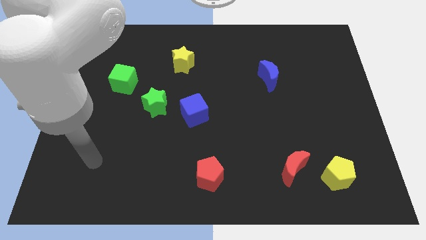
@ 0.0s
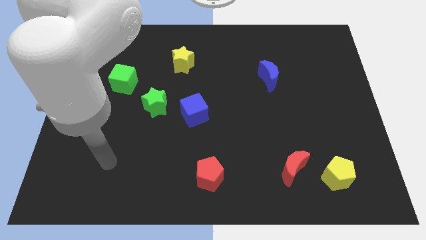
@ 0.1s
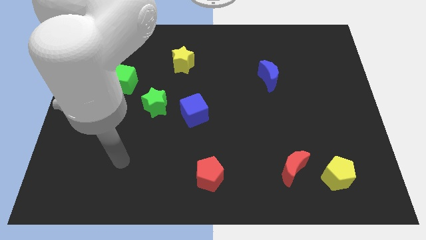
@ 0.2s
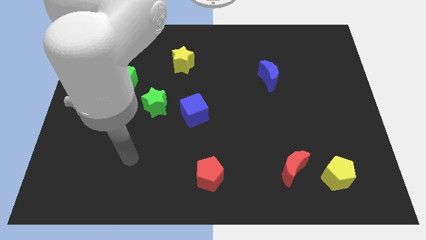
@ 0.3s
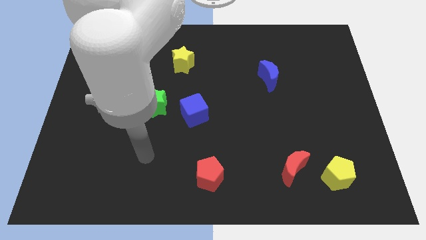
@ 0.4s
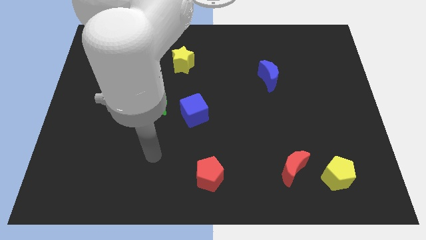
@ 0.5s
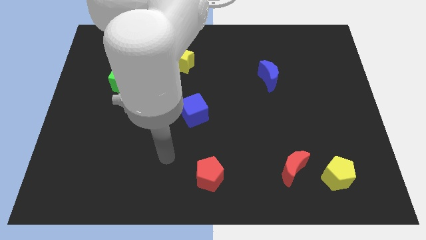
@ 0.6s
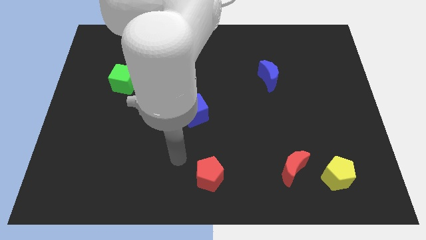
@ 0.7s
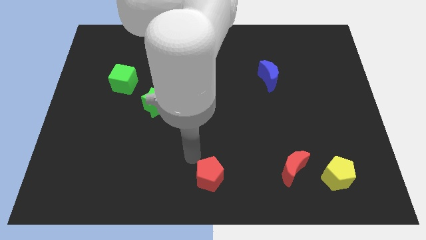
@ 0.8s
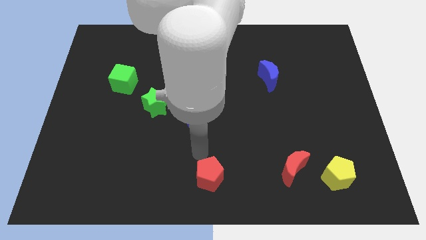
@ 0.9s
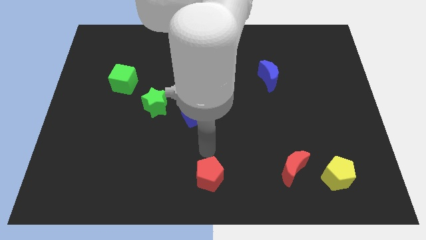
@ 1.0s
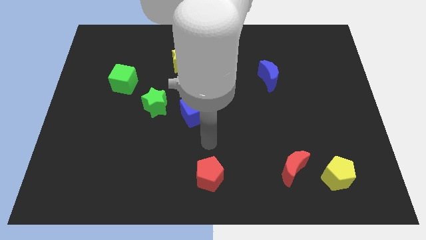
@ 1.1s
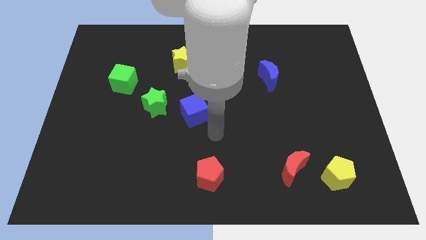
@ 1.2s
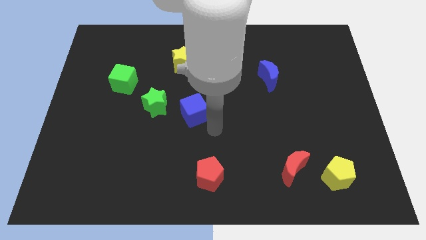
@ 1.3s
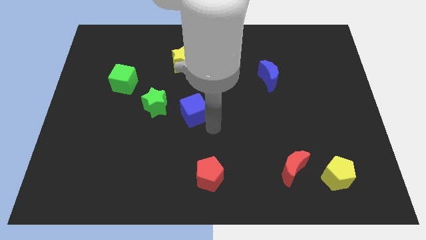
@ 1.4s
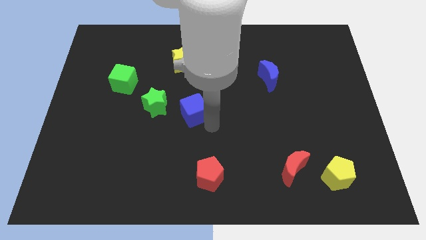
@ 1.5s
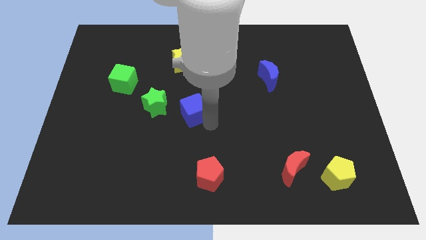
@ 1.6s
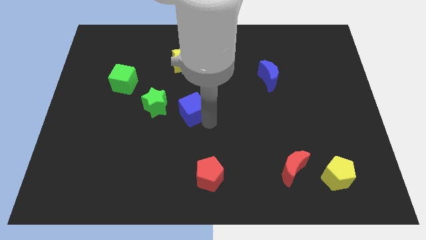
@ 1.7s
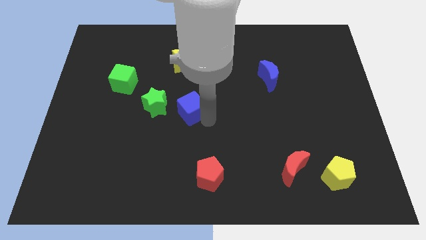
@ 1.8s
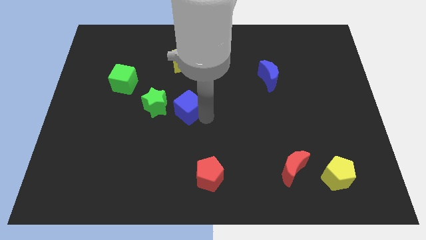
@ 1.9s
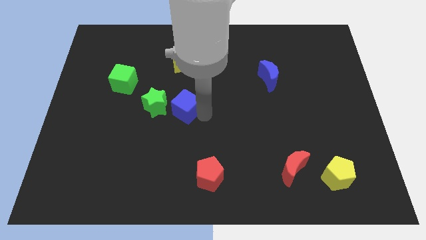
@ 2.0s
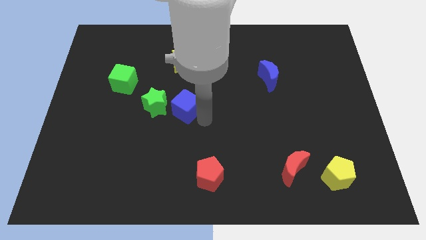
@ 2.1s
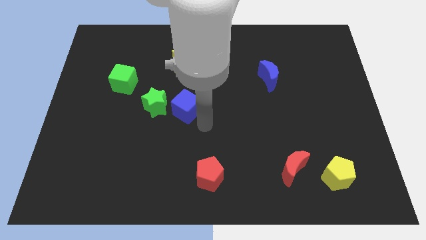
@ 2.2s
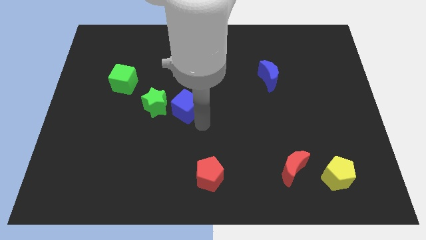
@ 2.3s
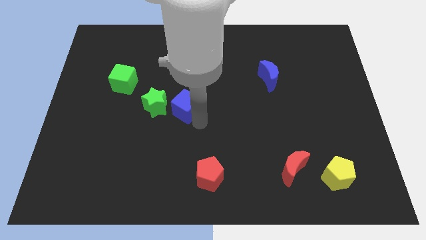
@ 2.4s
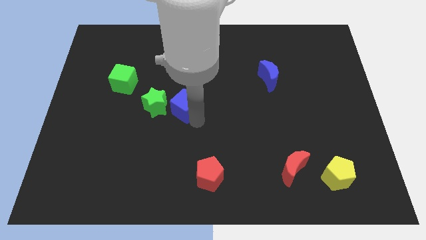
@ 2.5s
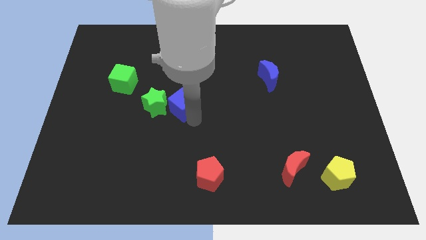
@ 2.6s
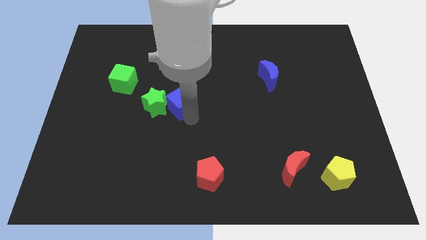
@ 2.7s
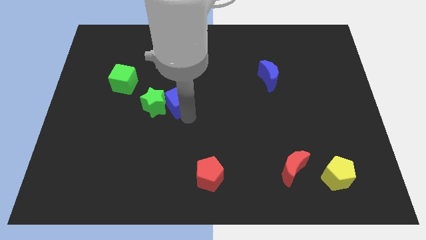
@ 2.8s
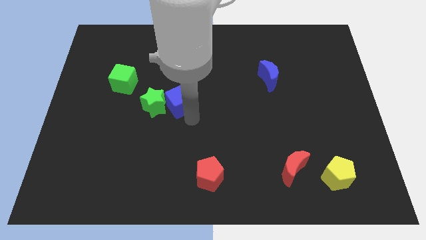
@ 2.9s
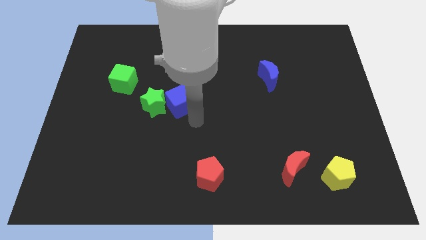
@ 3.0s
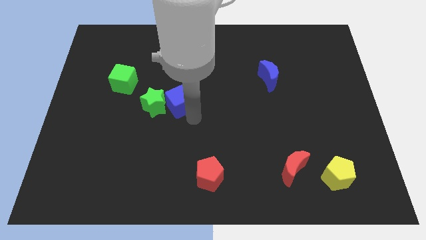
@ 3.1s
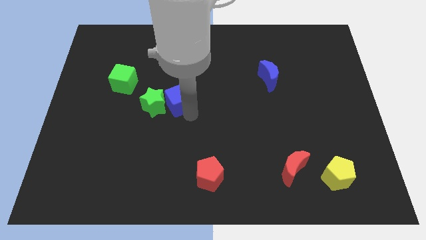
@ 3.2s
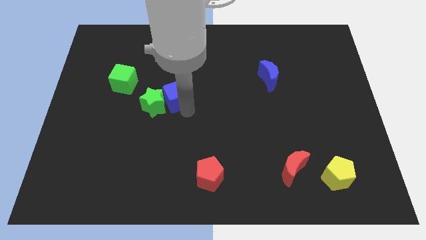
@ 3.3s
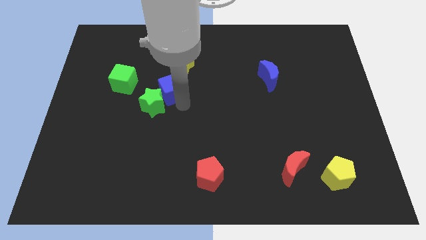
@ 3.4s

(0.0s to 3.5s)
push the blue cube slightly up and left

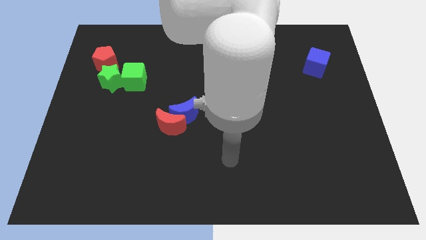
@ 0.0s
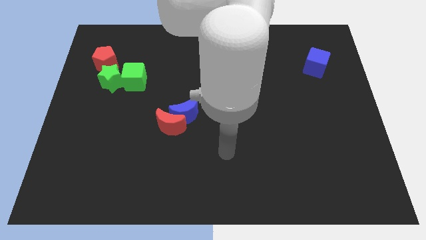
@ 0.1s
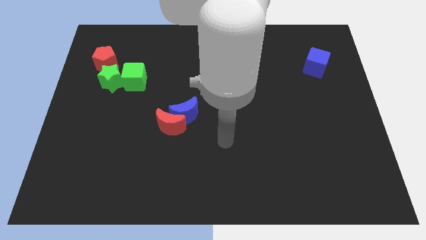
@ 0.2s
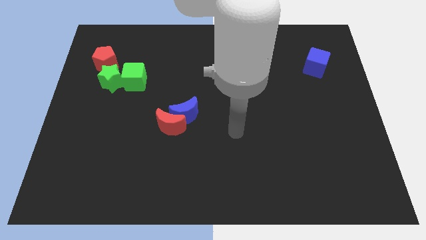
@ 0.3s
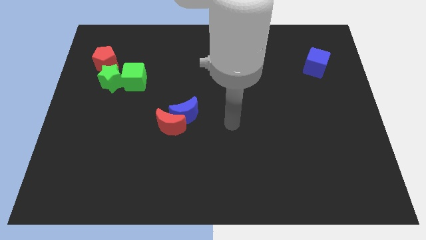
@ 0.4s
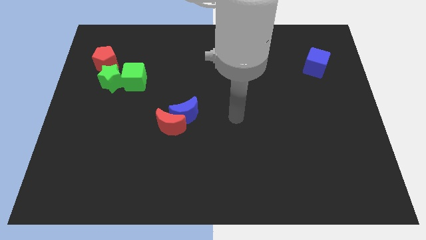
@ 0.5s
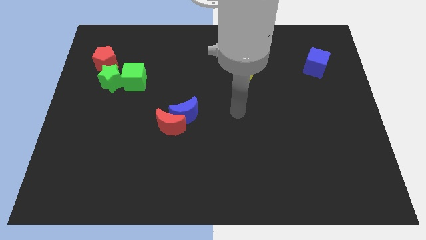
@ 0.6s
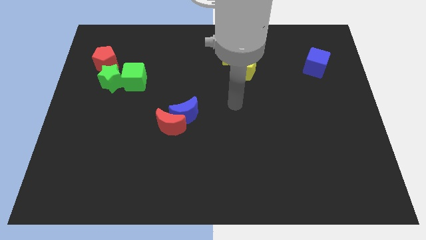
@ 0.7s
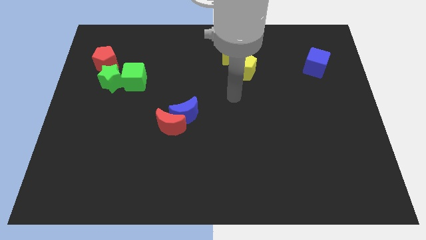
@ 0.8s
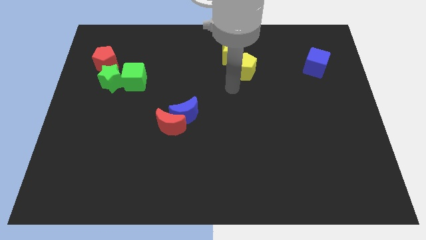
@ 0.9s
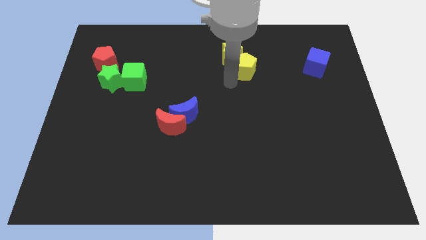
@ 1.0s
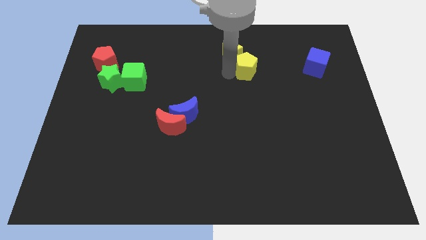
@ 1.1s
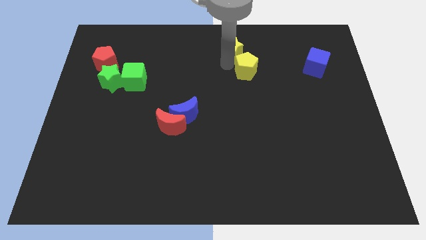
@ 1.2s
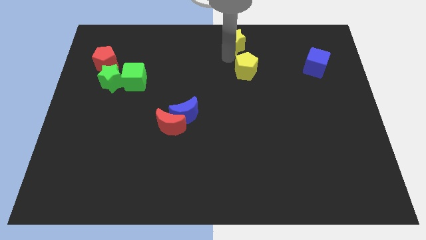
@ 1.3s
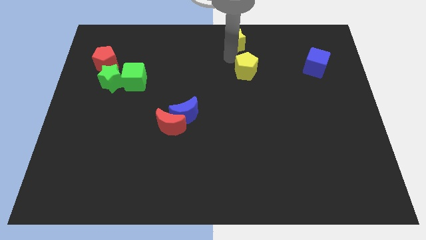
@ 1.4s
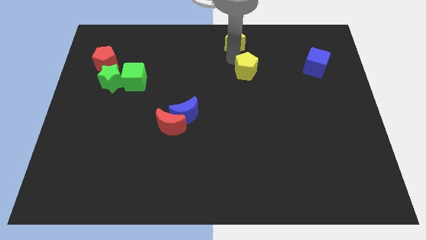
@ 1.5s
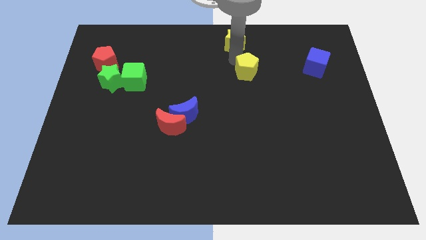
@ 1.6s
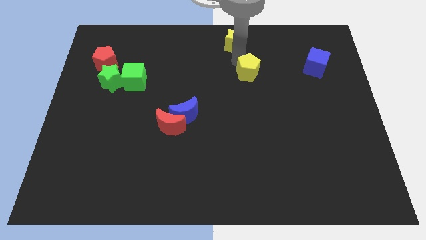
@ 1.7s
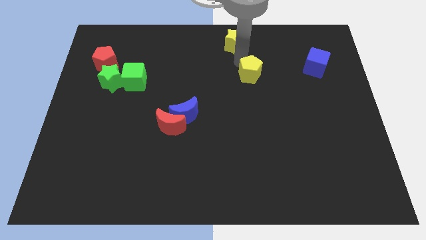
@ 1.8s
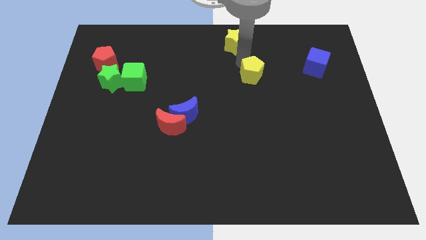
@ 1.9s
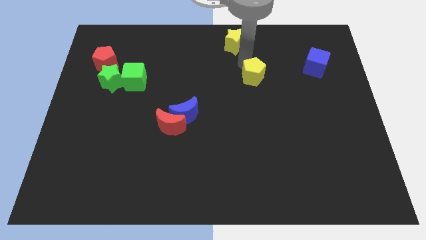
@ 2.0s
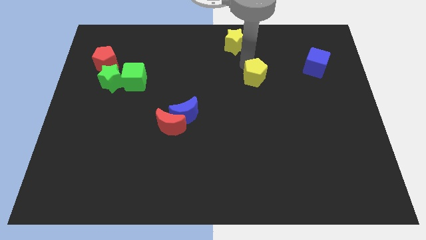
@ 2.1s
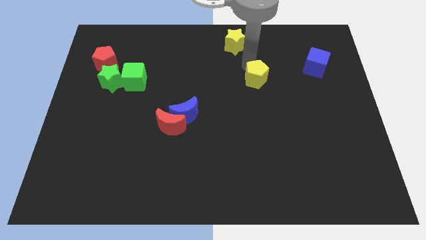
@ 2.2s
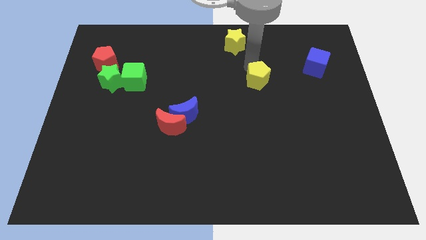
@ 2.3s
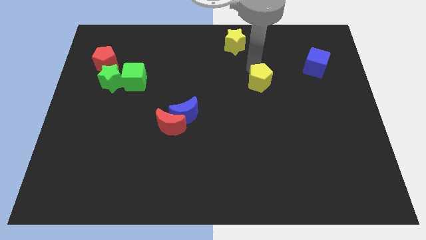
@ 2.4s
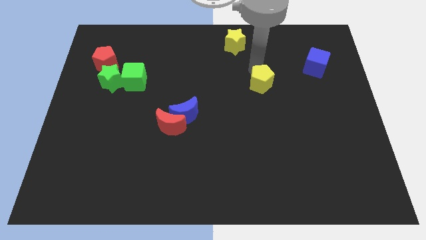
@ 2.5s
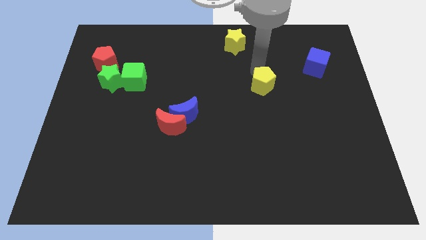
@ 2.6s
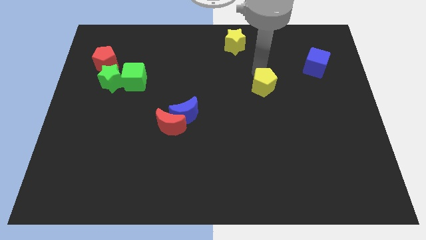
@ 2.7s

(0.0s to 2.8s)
move the yellow pentagon slightly down and to the right

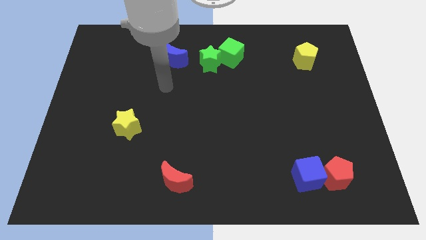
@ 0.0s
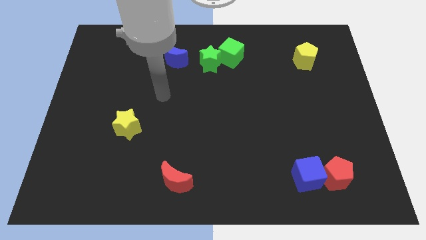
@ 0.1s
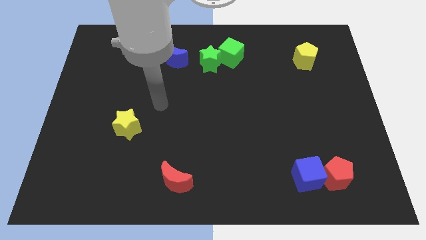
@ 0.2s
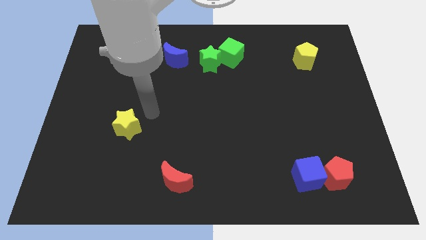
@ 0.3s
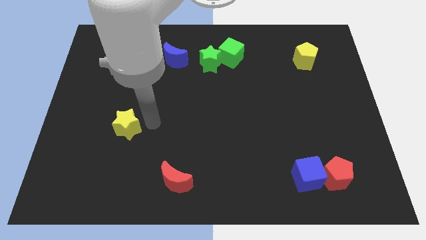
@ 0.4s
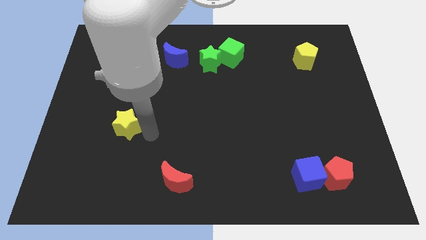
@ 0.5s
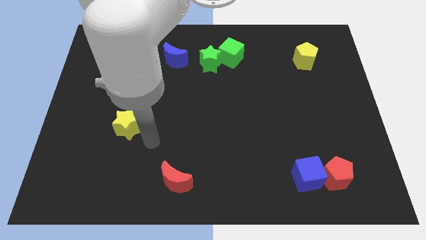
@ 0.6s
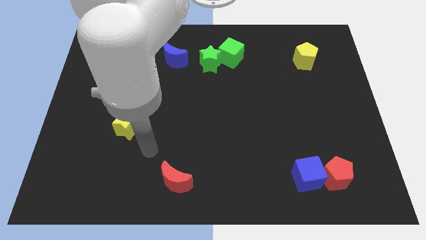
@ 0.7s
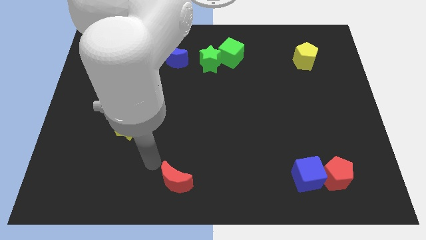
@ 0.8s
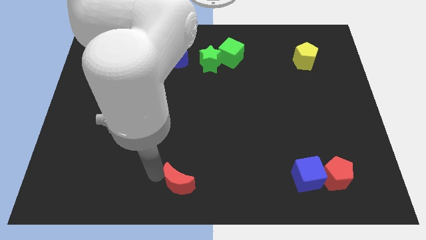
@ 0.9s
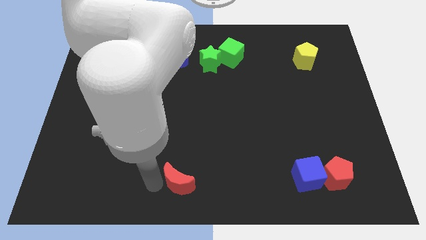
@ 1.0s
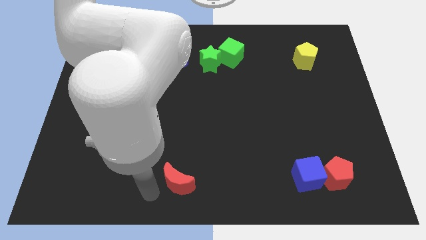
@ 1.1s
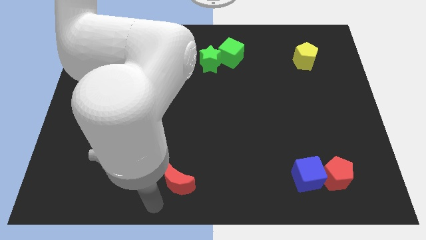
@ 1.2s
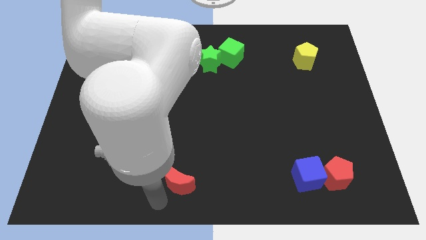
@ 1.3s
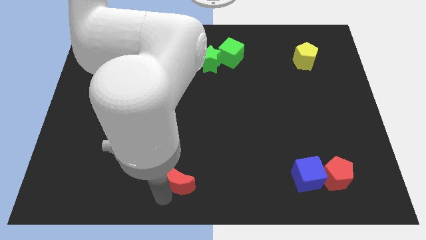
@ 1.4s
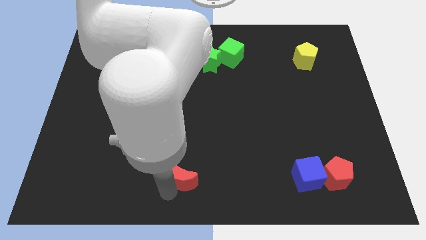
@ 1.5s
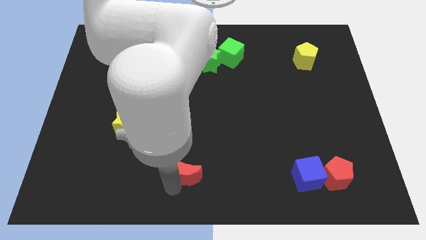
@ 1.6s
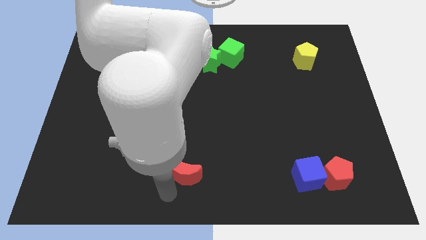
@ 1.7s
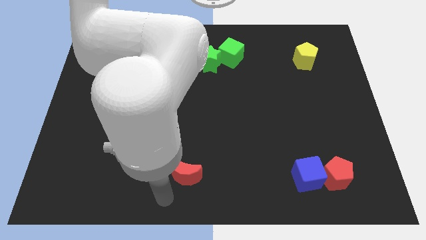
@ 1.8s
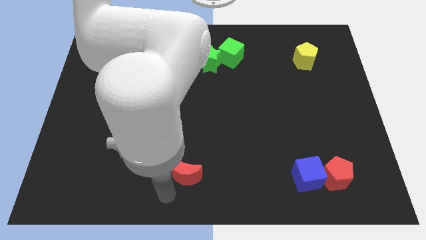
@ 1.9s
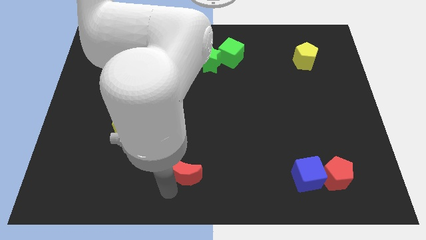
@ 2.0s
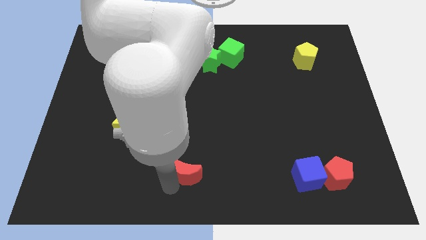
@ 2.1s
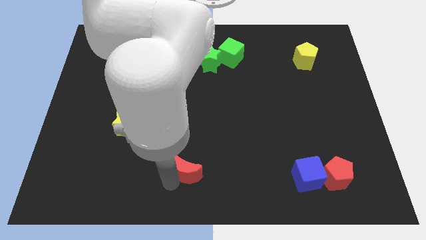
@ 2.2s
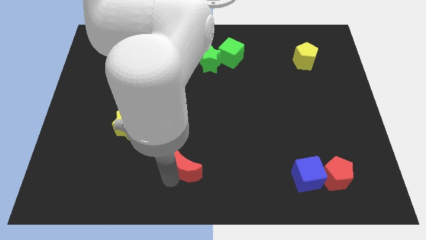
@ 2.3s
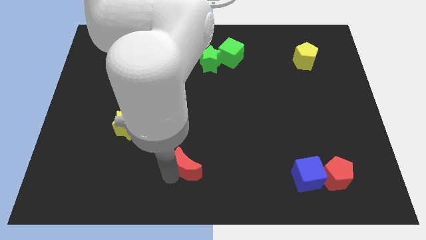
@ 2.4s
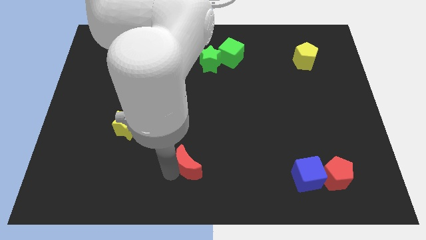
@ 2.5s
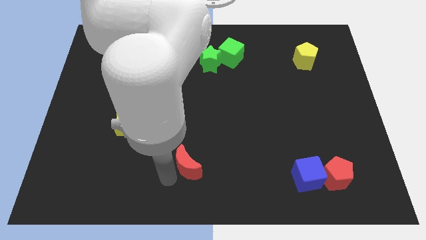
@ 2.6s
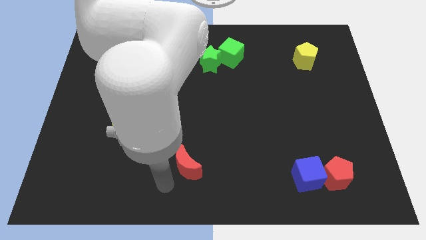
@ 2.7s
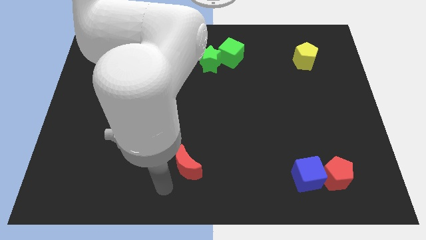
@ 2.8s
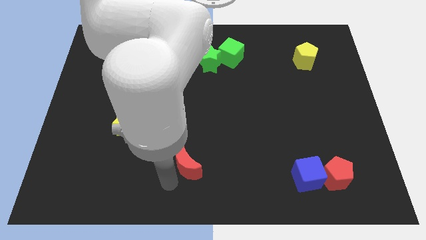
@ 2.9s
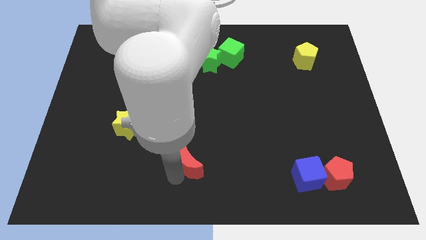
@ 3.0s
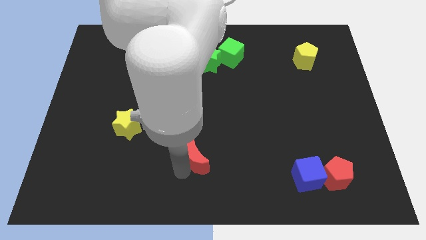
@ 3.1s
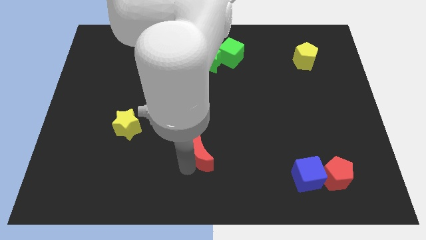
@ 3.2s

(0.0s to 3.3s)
slightly slide the red moon up and right diagonally
